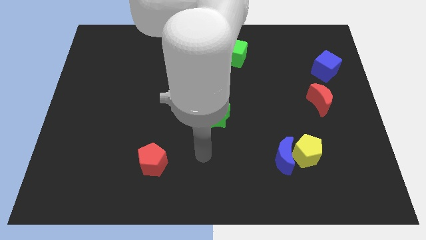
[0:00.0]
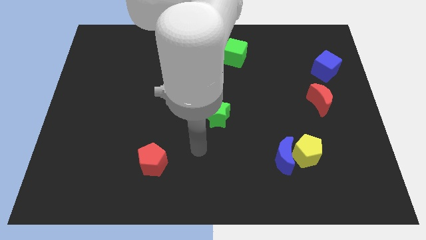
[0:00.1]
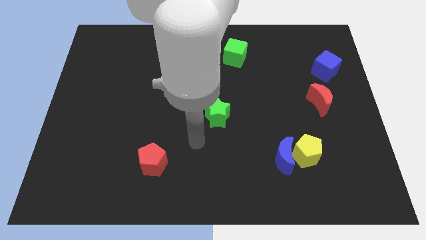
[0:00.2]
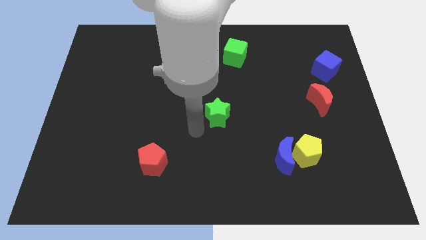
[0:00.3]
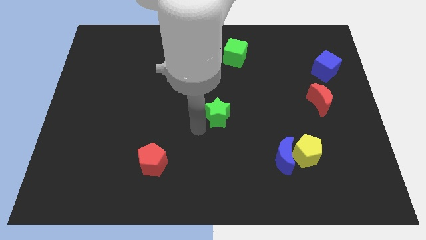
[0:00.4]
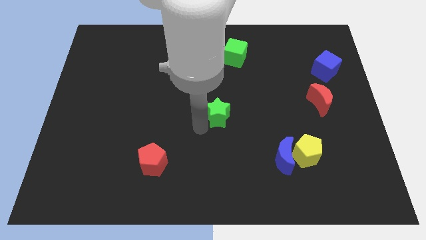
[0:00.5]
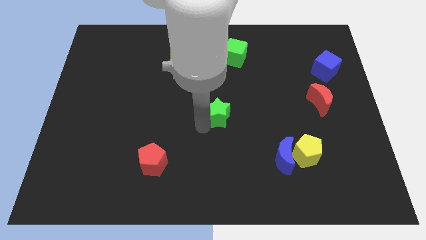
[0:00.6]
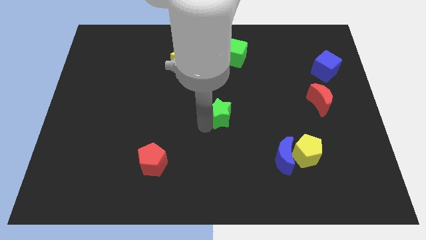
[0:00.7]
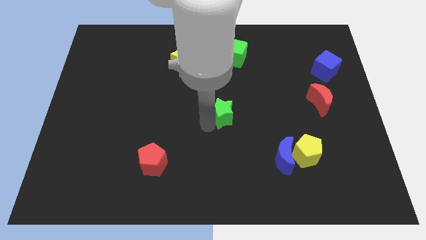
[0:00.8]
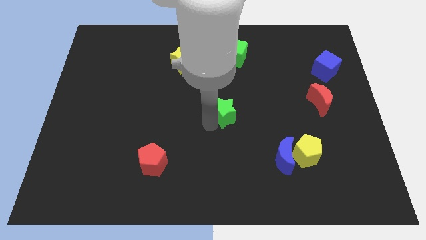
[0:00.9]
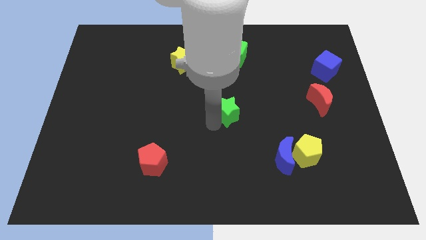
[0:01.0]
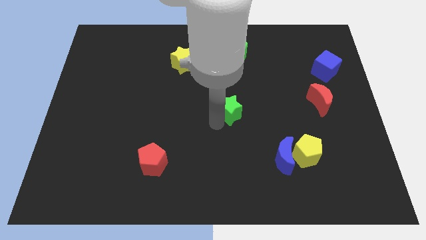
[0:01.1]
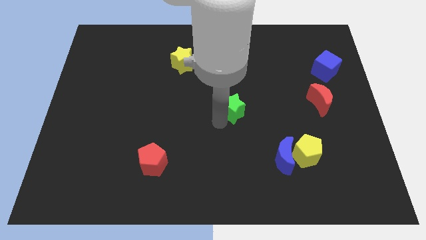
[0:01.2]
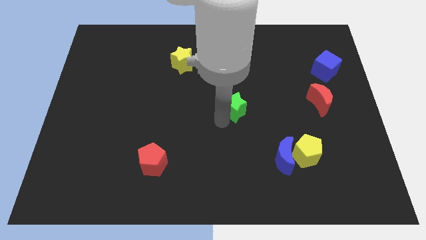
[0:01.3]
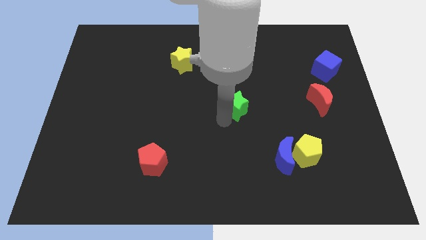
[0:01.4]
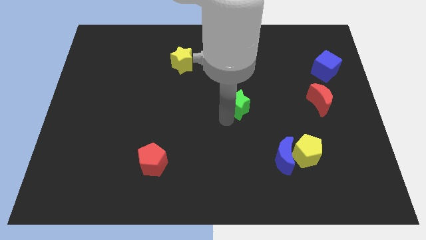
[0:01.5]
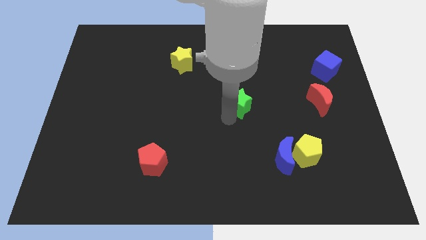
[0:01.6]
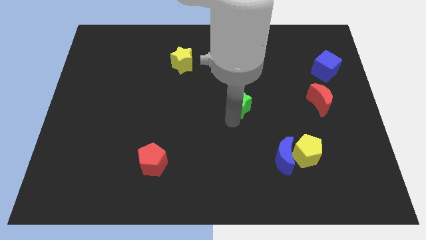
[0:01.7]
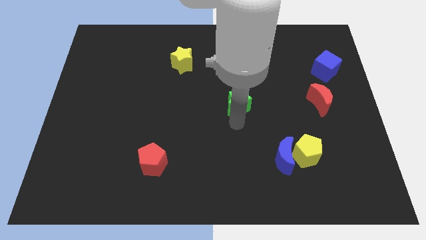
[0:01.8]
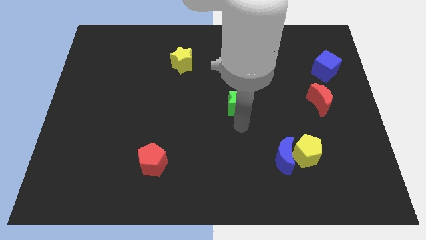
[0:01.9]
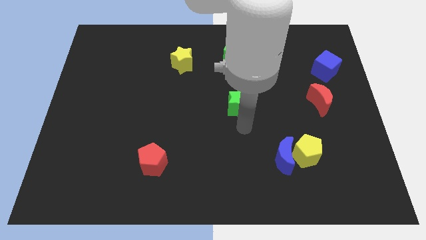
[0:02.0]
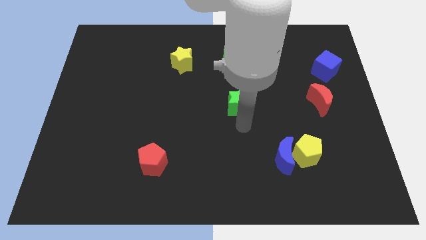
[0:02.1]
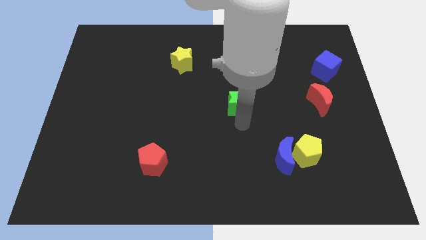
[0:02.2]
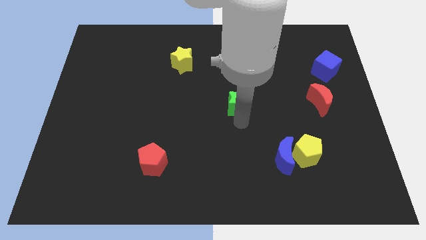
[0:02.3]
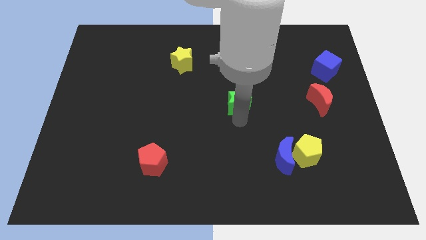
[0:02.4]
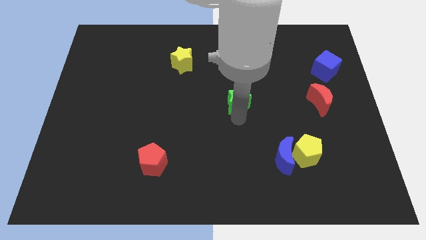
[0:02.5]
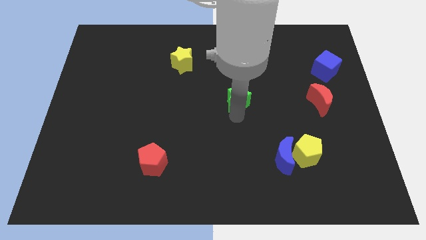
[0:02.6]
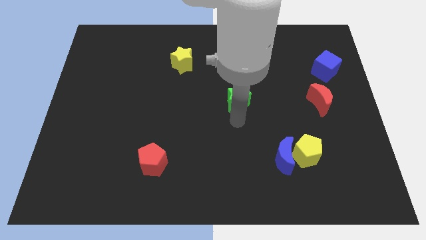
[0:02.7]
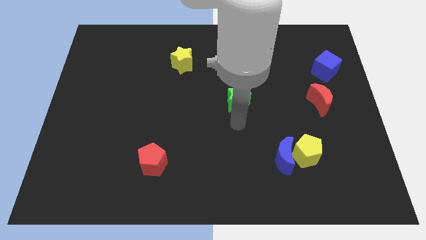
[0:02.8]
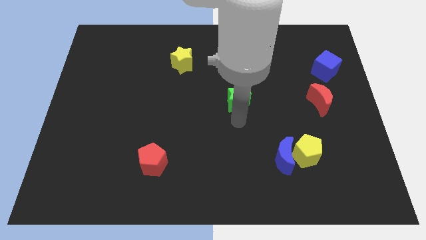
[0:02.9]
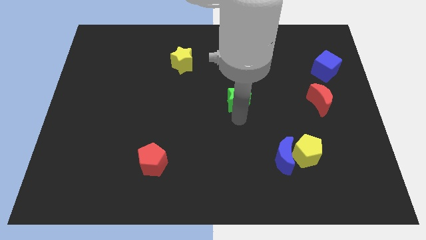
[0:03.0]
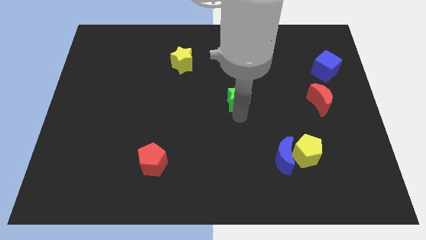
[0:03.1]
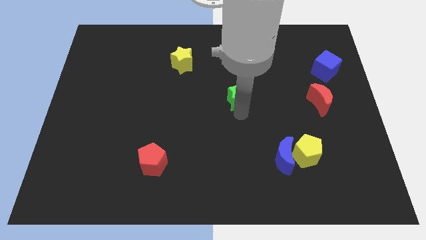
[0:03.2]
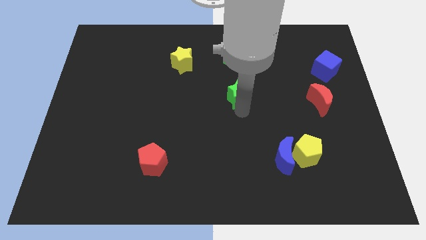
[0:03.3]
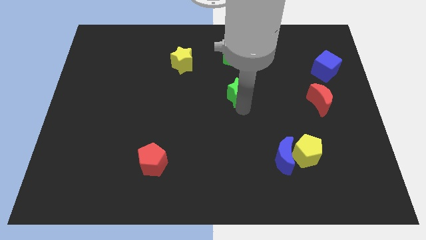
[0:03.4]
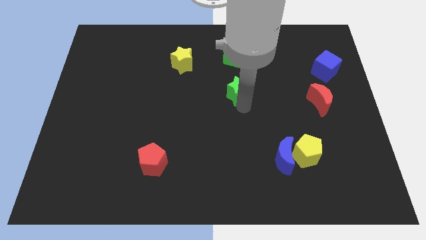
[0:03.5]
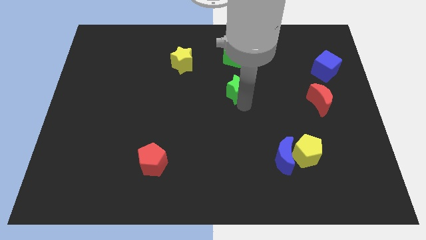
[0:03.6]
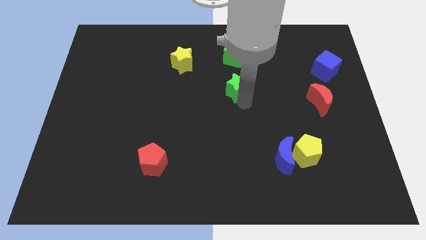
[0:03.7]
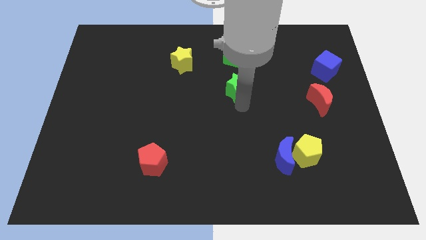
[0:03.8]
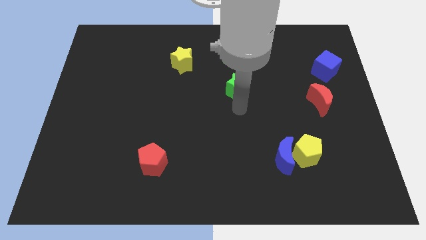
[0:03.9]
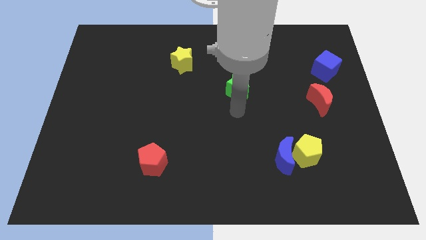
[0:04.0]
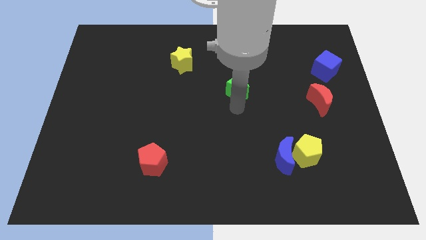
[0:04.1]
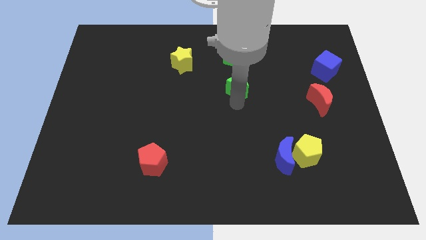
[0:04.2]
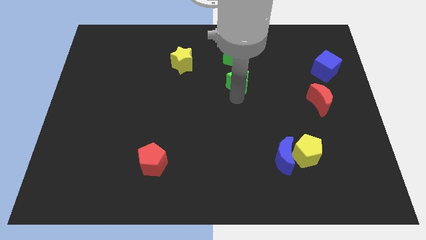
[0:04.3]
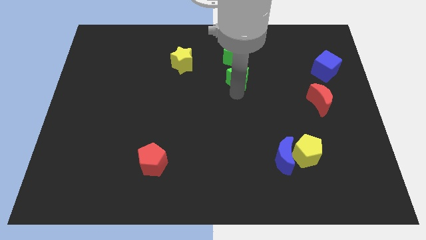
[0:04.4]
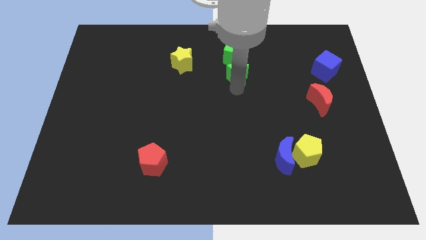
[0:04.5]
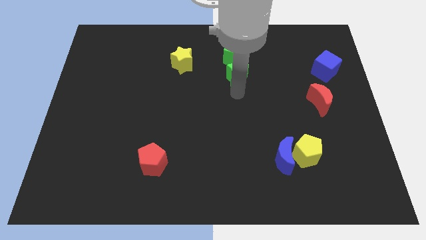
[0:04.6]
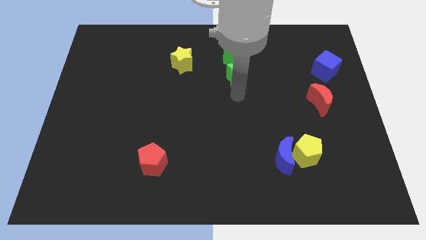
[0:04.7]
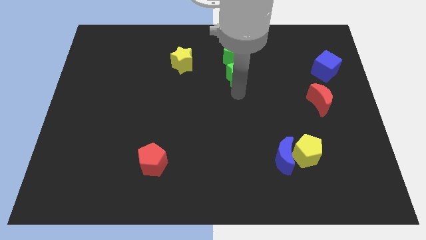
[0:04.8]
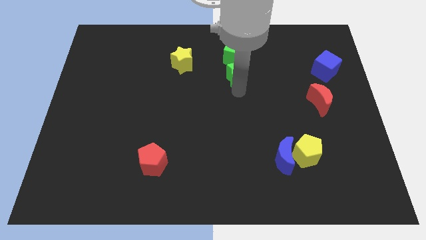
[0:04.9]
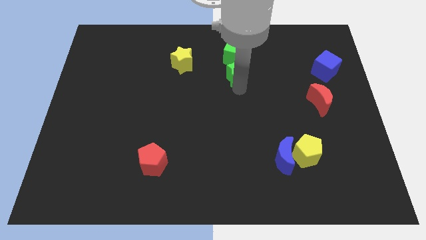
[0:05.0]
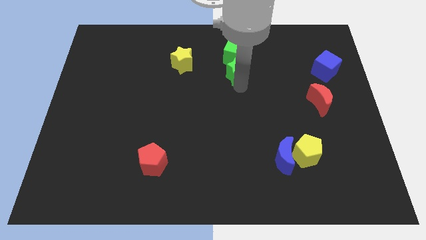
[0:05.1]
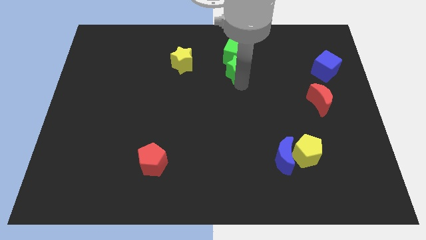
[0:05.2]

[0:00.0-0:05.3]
push the green star to the green cube
